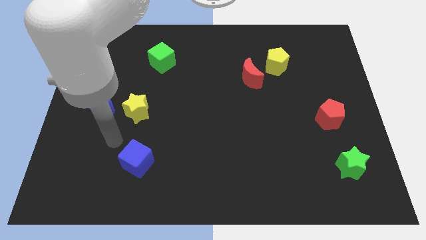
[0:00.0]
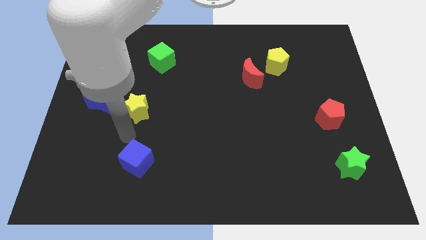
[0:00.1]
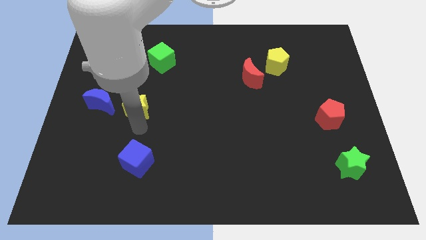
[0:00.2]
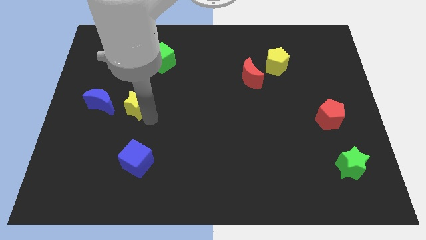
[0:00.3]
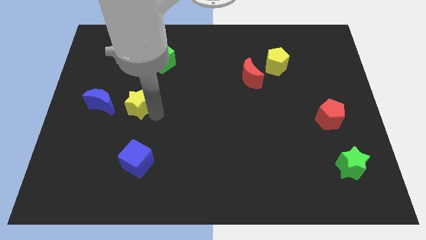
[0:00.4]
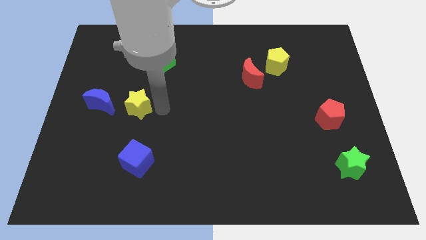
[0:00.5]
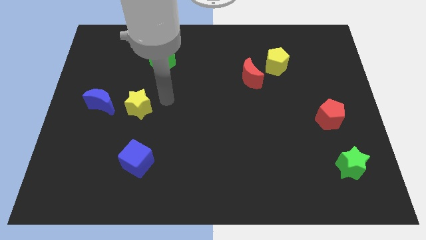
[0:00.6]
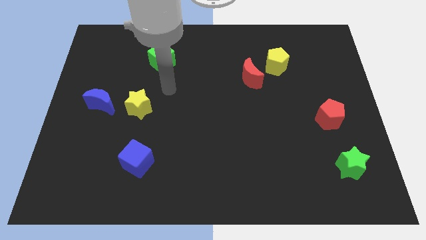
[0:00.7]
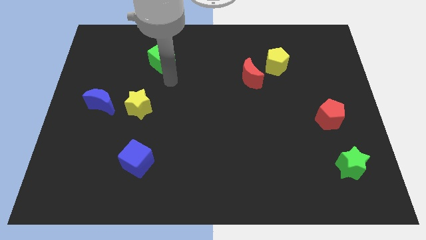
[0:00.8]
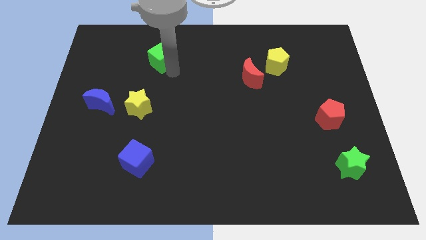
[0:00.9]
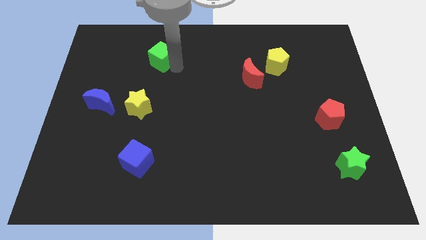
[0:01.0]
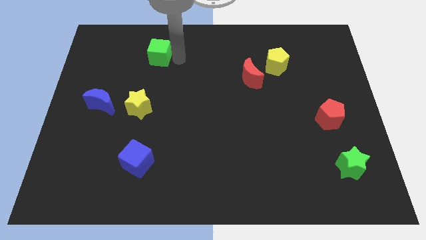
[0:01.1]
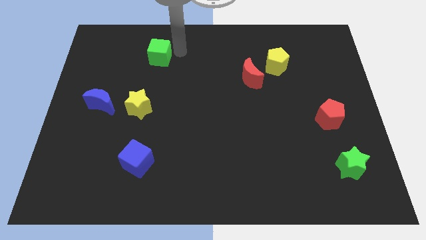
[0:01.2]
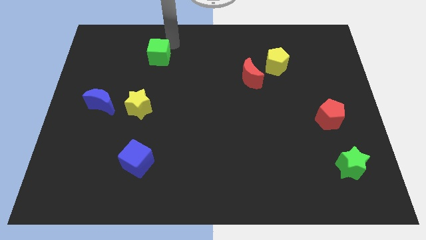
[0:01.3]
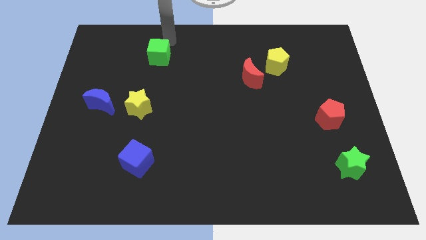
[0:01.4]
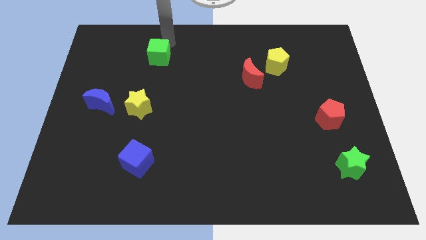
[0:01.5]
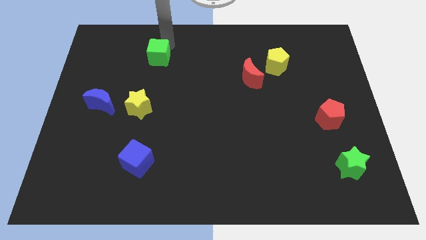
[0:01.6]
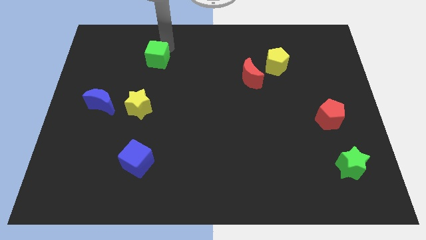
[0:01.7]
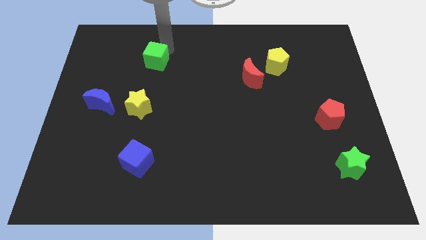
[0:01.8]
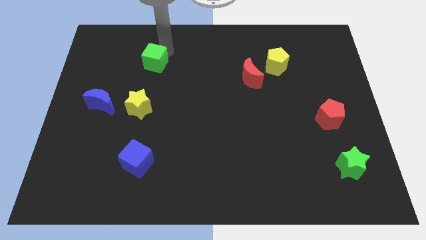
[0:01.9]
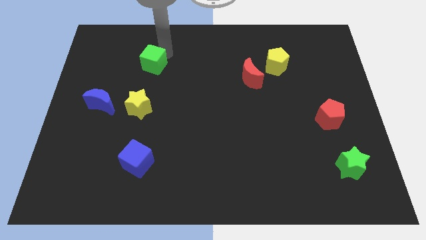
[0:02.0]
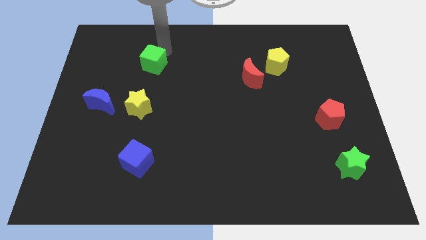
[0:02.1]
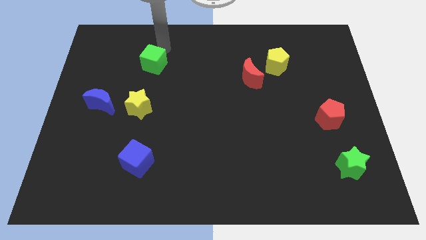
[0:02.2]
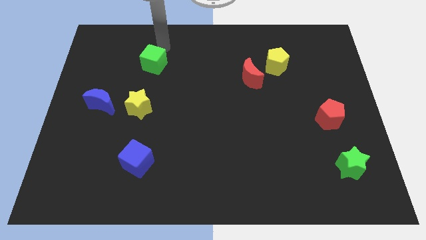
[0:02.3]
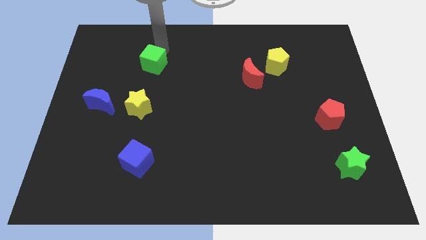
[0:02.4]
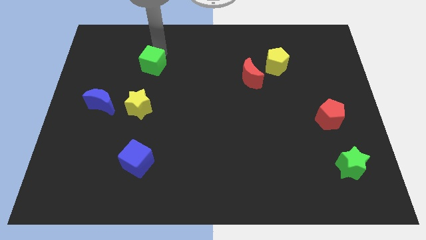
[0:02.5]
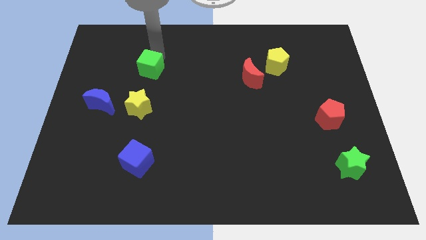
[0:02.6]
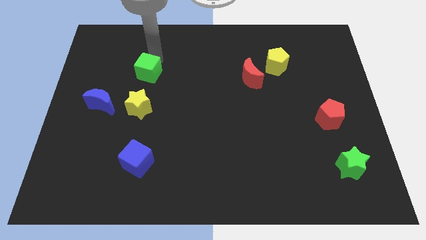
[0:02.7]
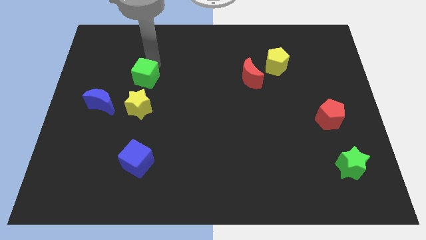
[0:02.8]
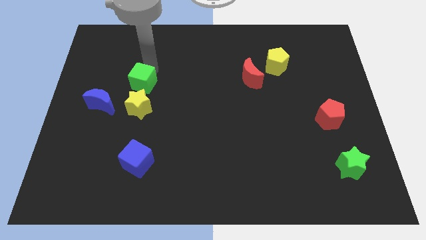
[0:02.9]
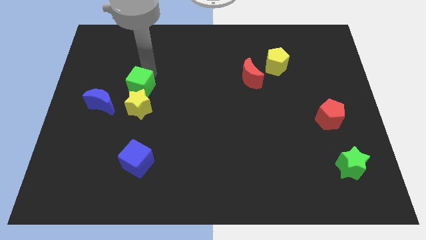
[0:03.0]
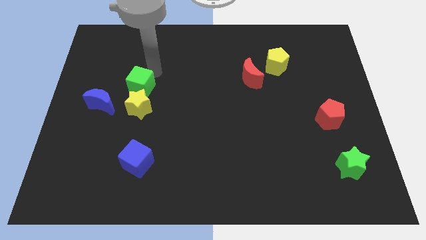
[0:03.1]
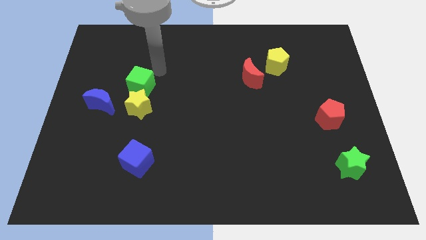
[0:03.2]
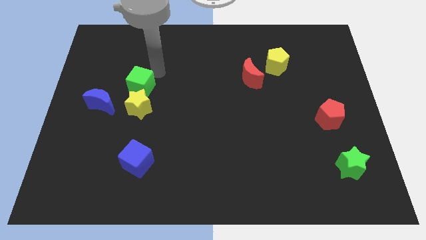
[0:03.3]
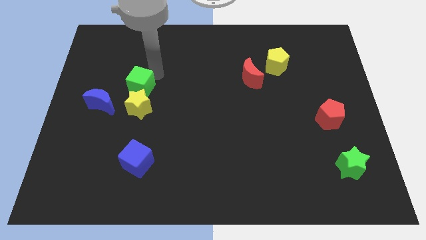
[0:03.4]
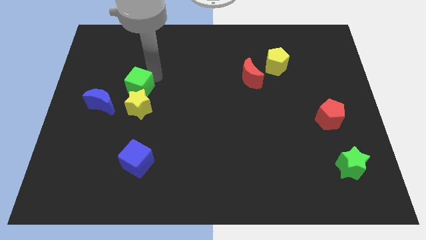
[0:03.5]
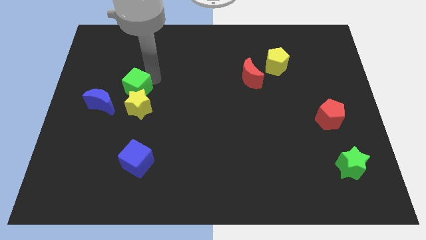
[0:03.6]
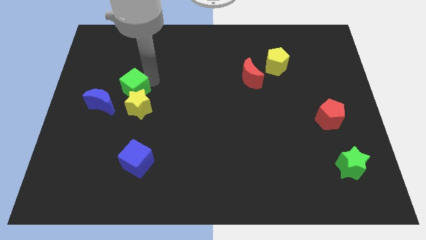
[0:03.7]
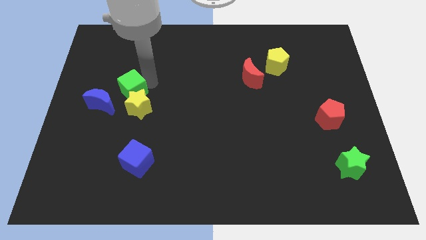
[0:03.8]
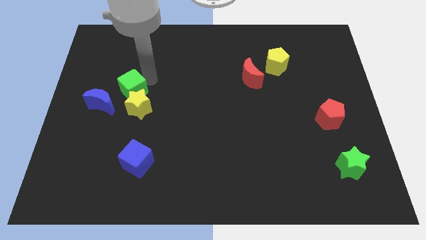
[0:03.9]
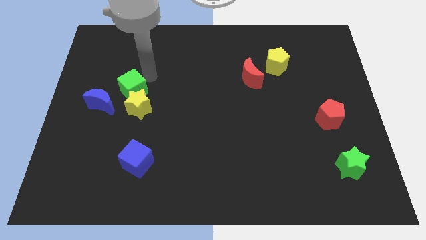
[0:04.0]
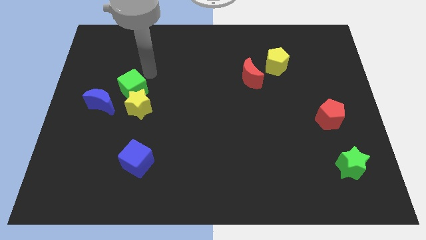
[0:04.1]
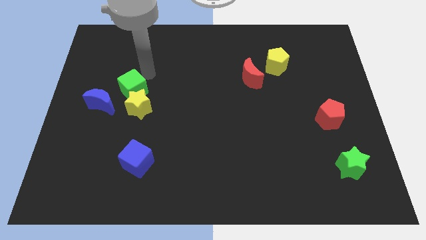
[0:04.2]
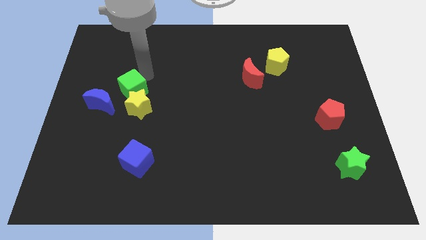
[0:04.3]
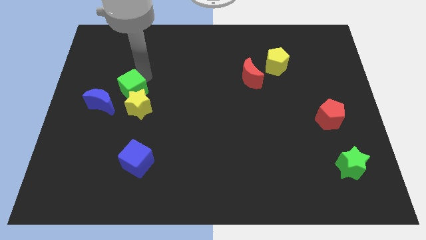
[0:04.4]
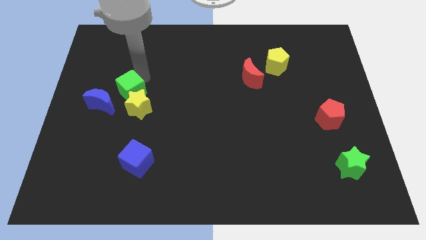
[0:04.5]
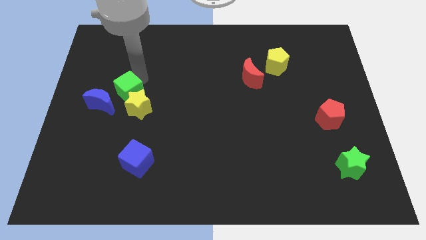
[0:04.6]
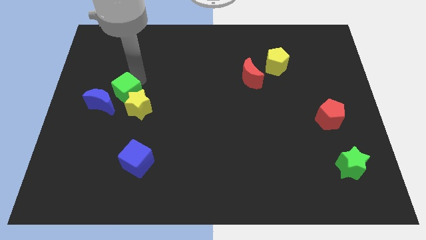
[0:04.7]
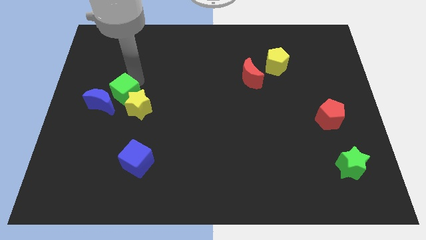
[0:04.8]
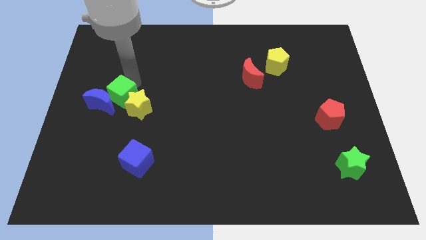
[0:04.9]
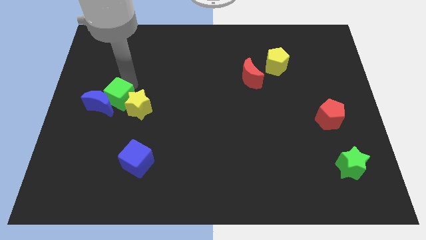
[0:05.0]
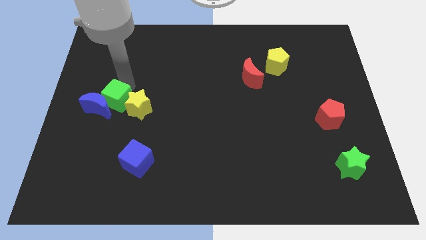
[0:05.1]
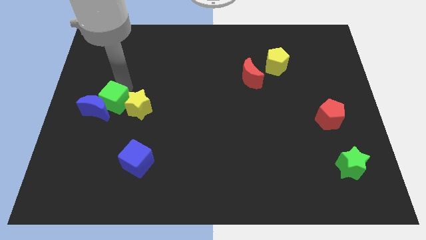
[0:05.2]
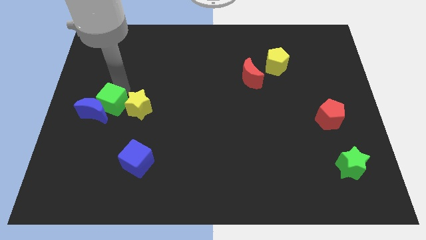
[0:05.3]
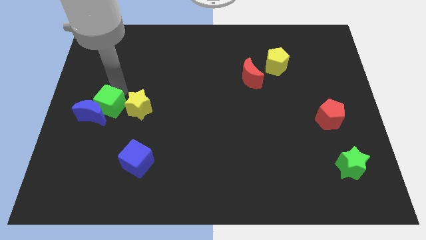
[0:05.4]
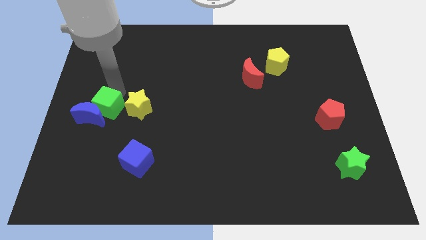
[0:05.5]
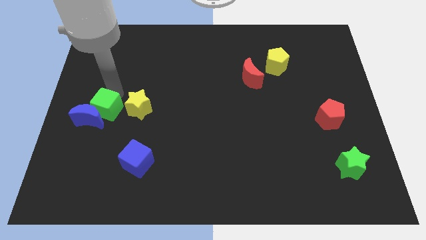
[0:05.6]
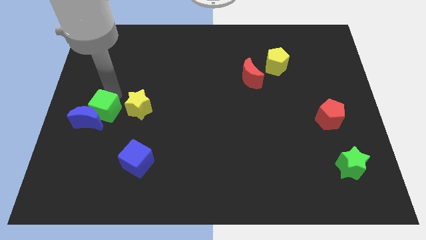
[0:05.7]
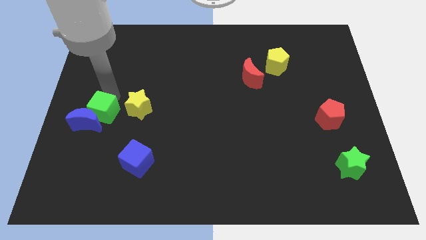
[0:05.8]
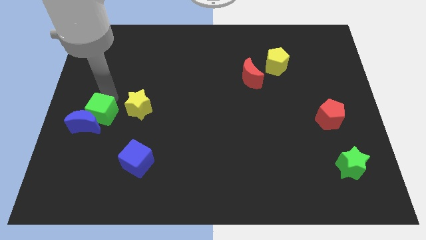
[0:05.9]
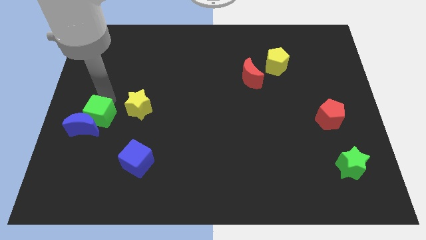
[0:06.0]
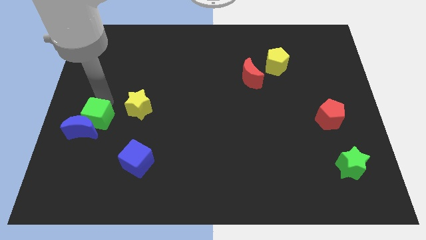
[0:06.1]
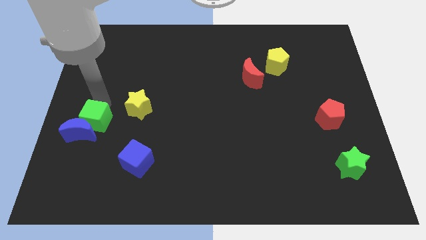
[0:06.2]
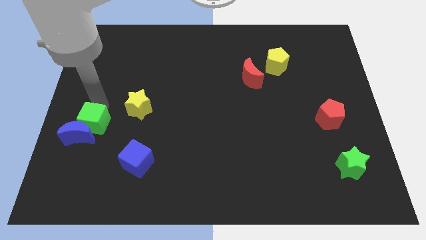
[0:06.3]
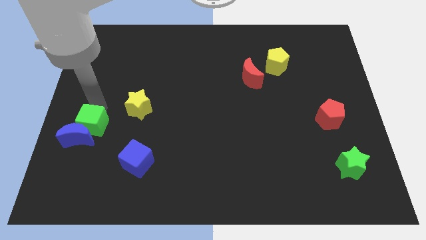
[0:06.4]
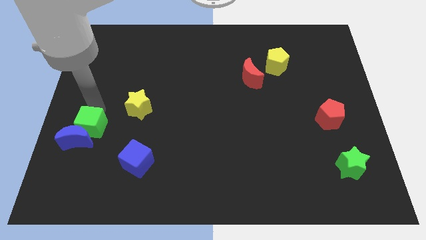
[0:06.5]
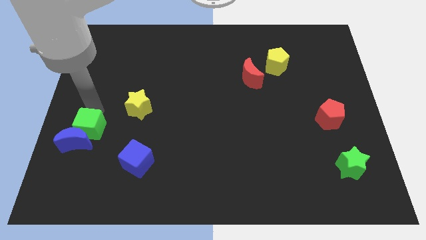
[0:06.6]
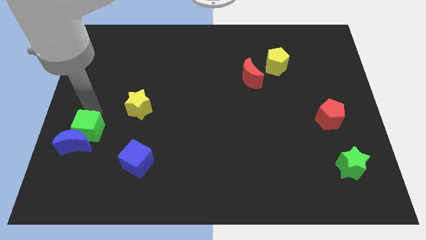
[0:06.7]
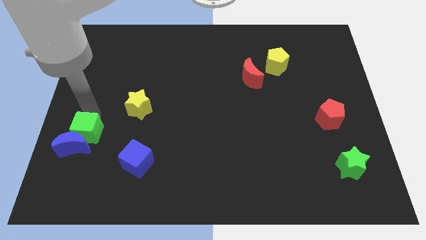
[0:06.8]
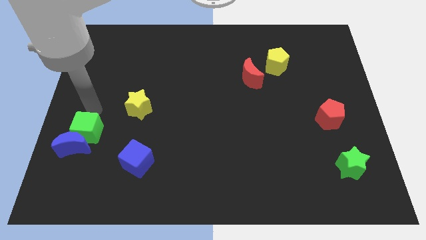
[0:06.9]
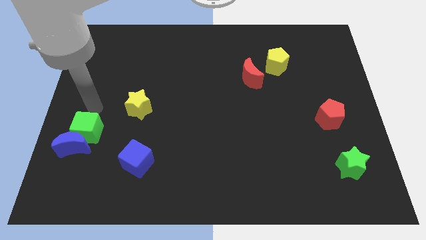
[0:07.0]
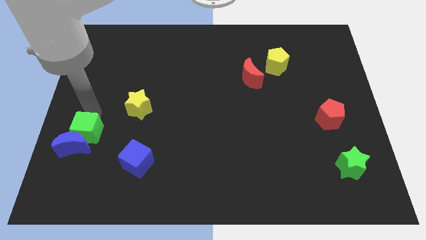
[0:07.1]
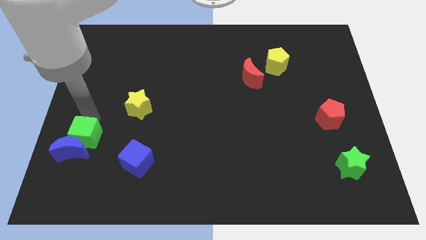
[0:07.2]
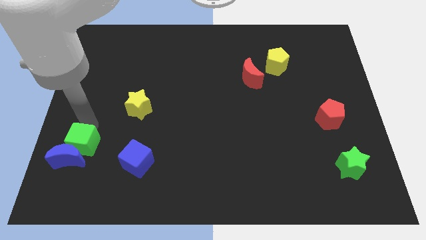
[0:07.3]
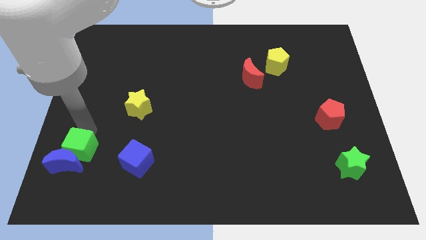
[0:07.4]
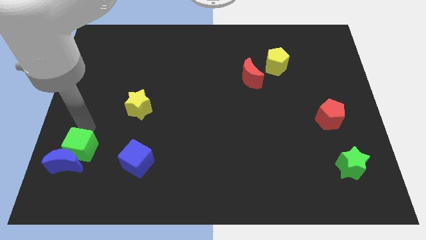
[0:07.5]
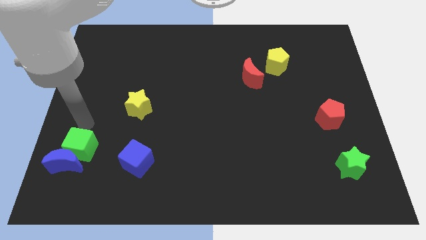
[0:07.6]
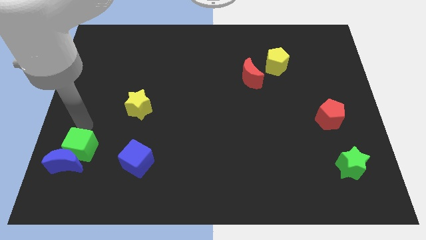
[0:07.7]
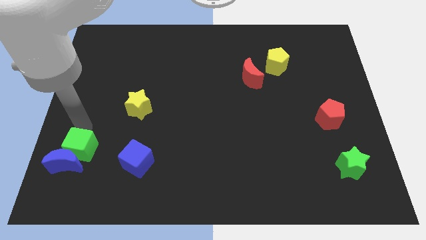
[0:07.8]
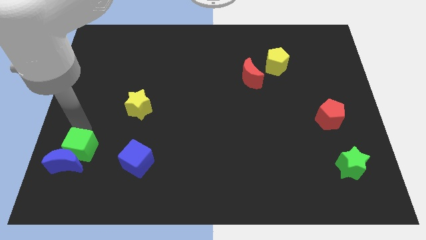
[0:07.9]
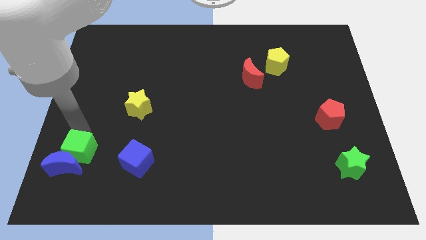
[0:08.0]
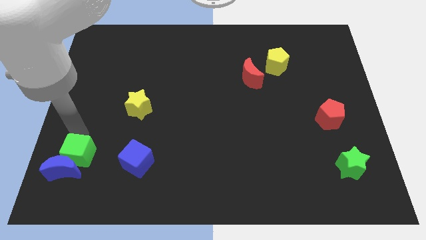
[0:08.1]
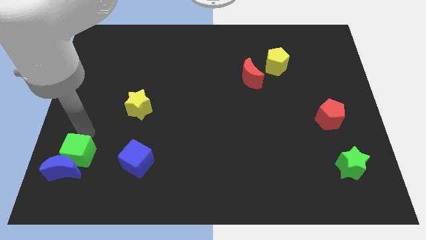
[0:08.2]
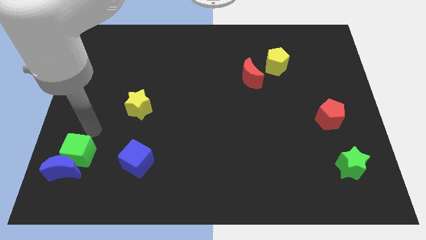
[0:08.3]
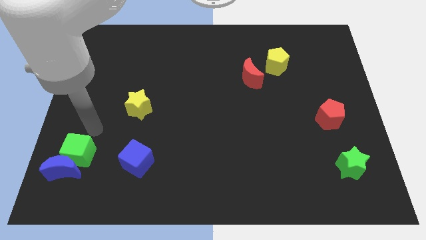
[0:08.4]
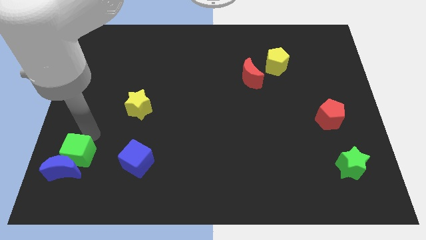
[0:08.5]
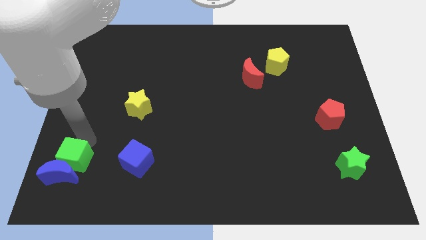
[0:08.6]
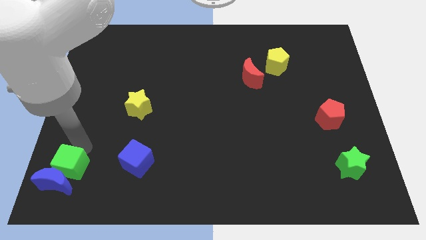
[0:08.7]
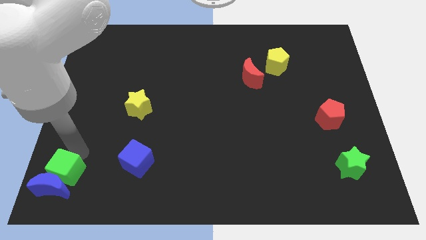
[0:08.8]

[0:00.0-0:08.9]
put the green cube to the bottom left of the board
